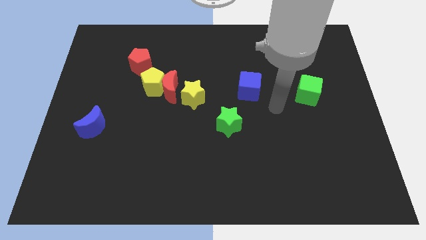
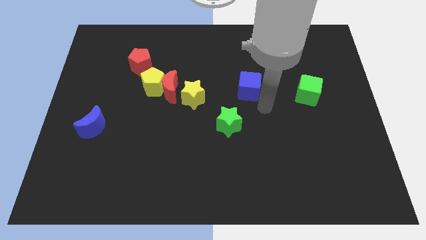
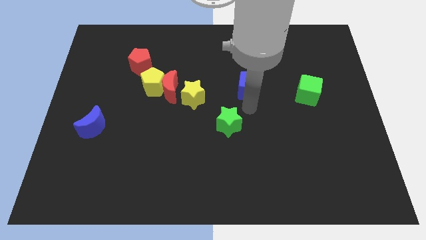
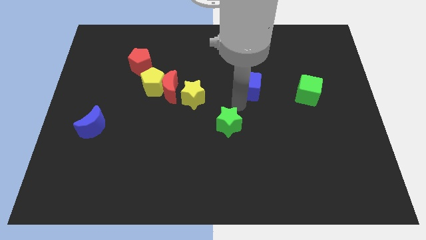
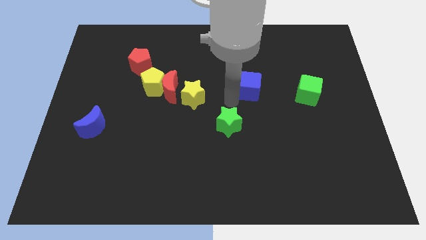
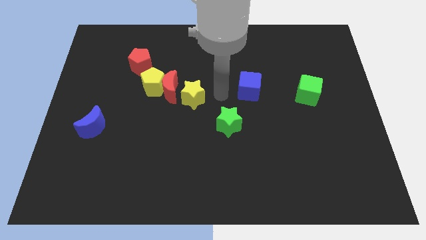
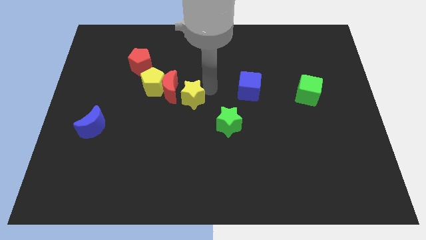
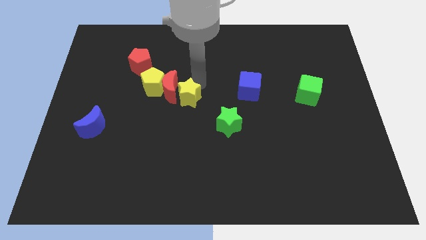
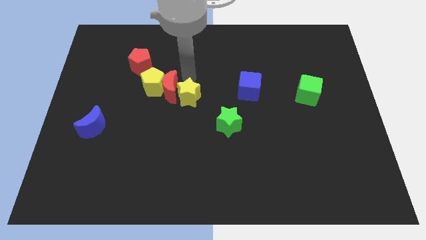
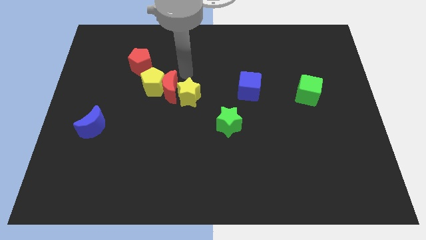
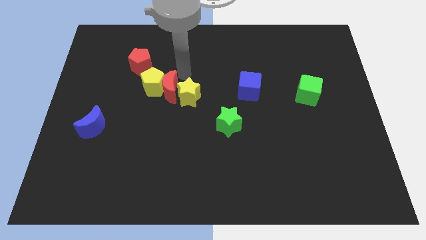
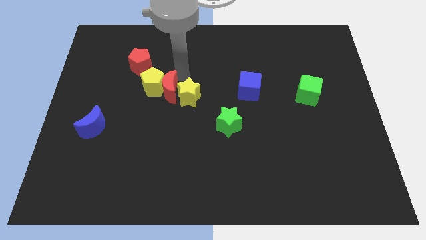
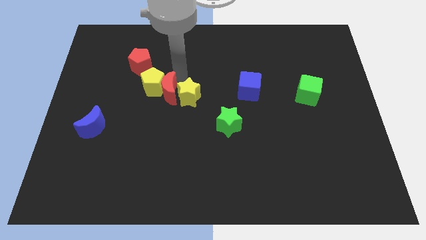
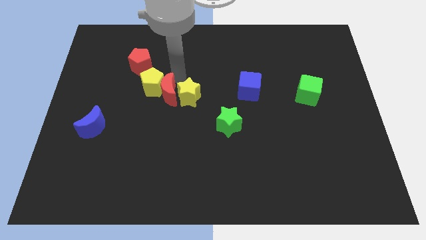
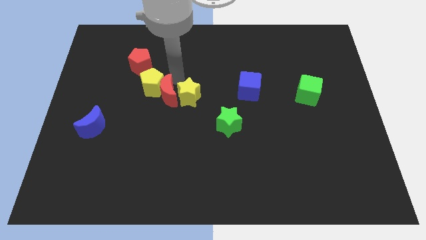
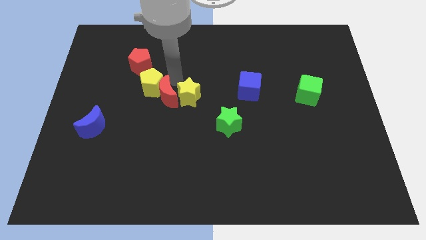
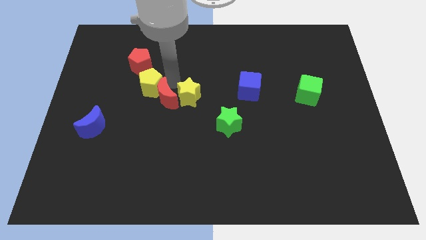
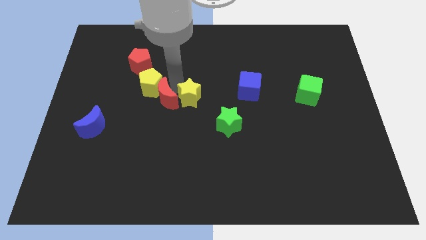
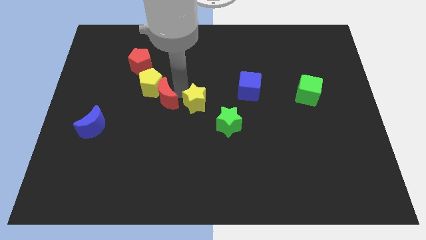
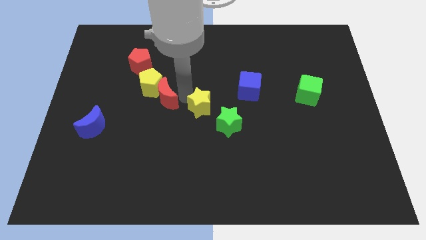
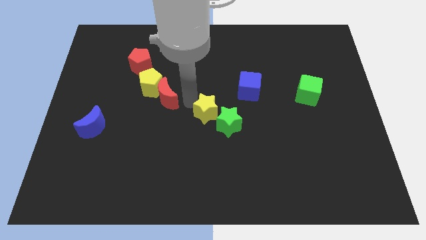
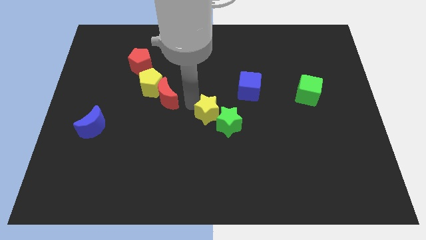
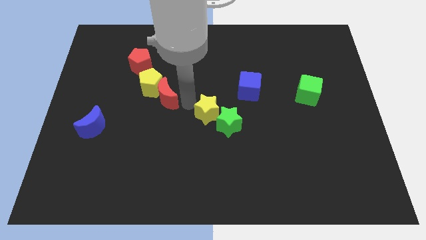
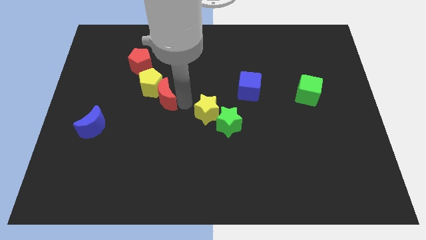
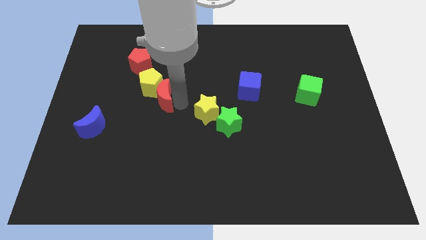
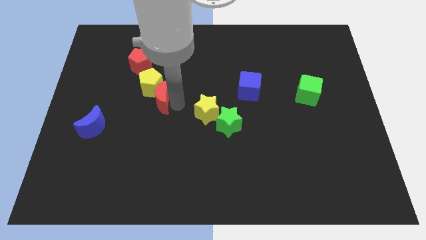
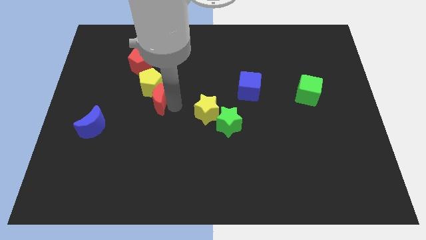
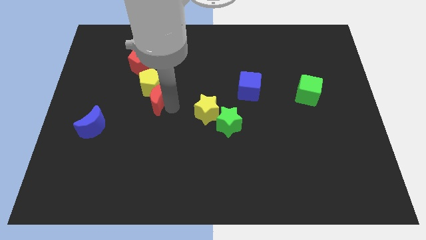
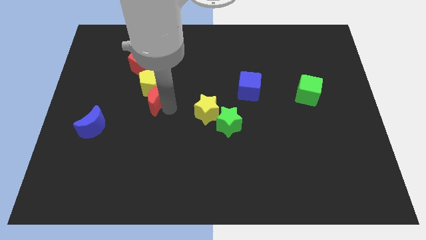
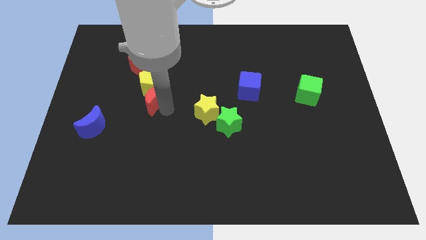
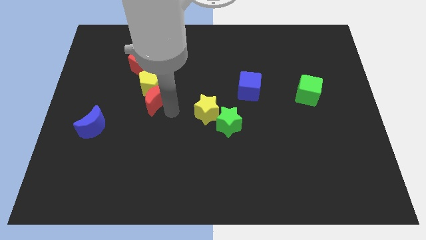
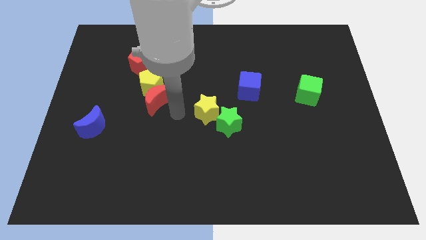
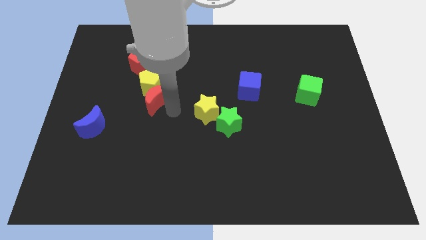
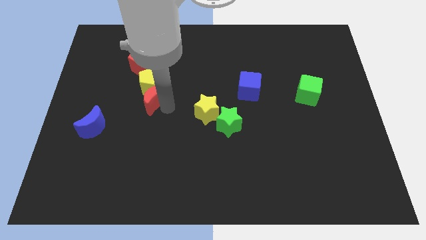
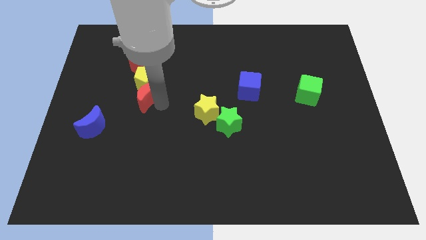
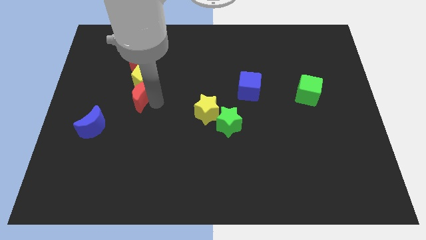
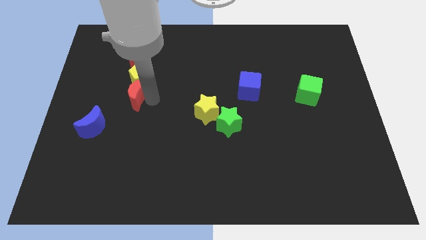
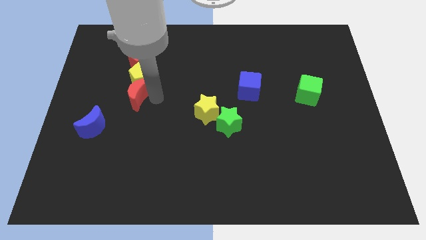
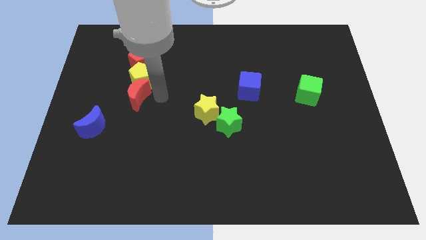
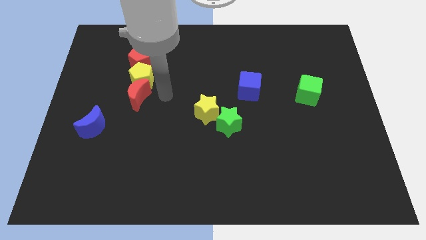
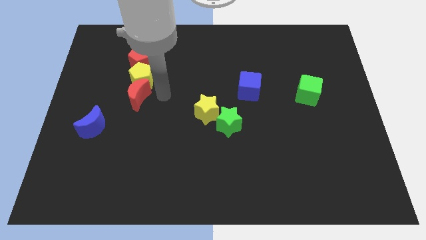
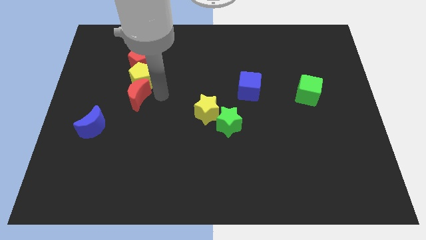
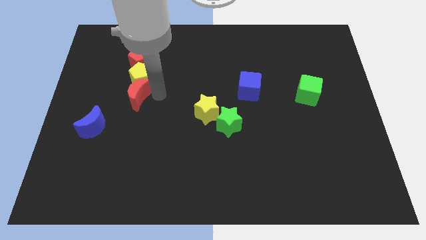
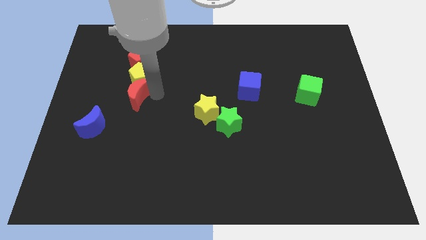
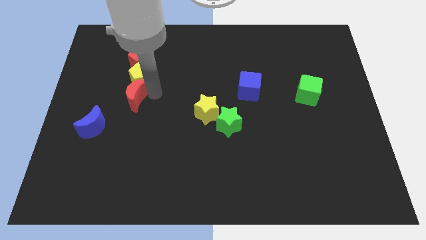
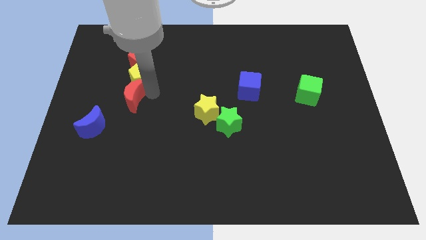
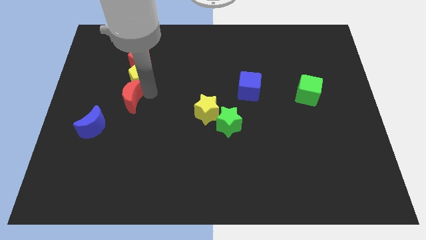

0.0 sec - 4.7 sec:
pull the red moon apart from the yellow pentagon and yellow star

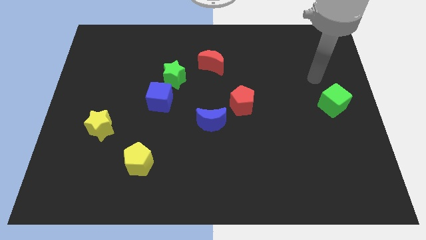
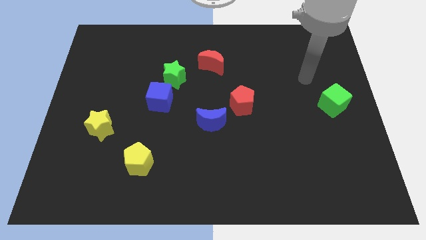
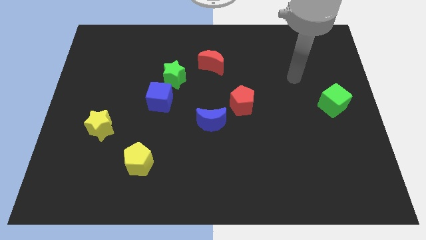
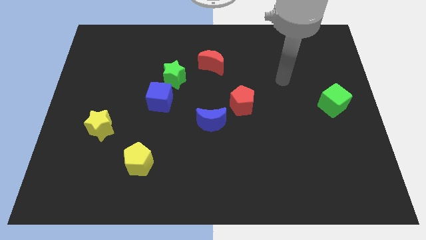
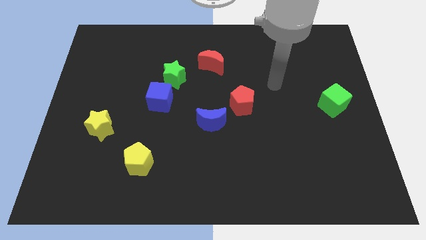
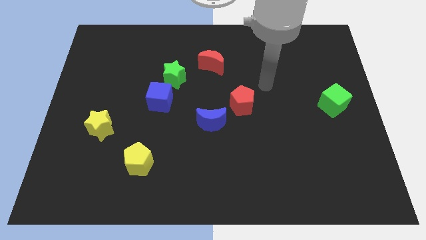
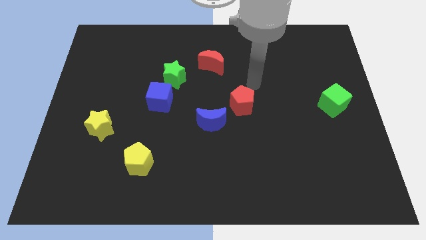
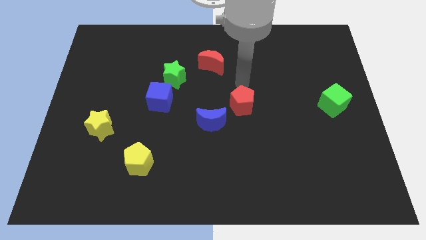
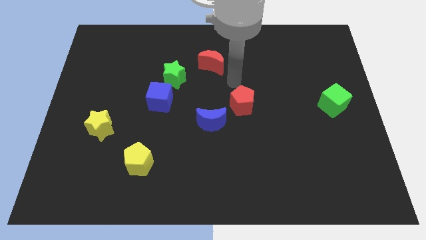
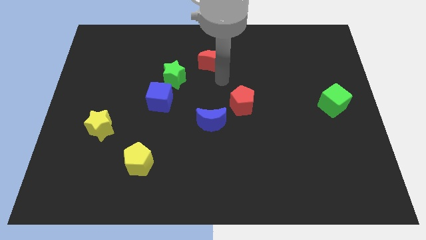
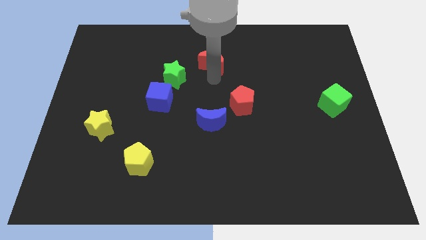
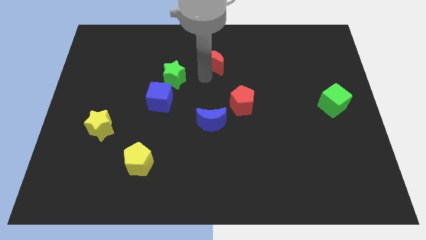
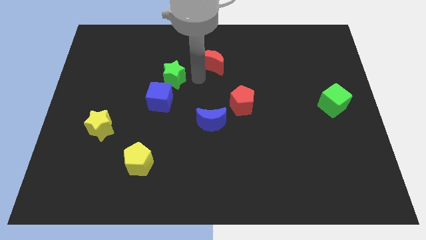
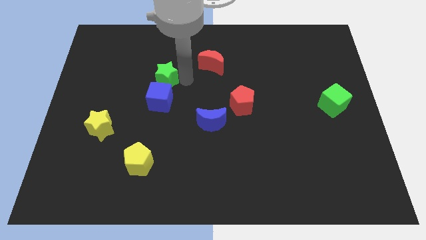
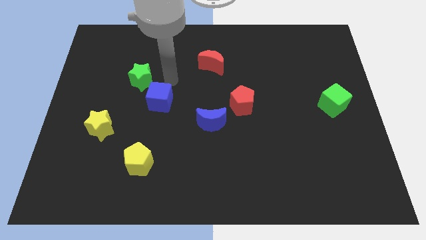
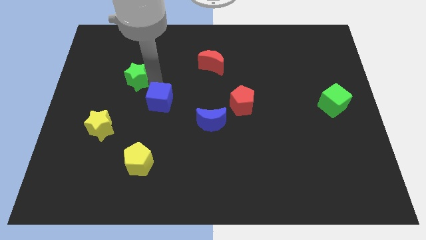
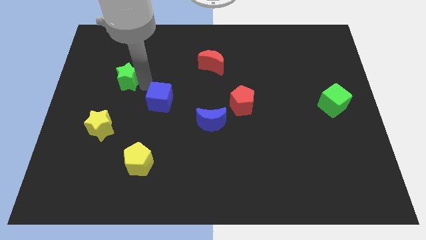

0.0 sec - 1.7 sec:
separate the blue cube from the green star

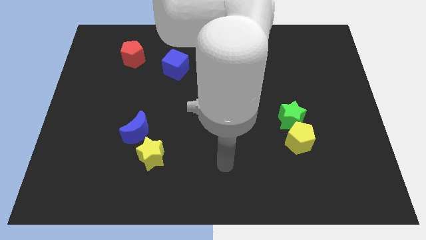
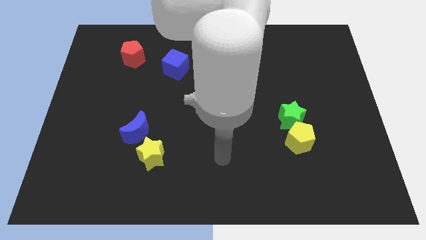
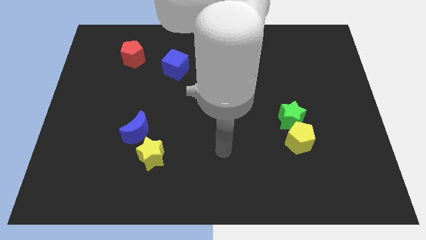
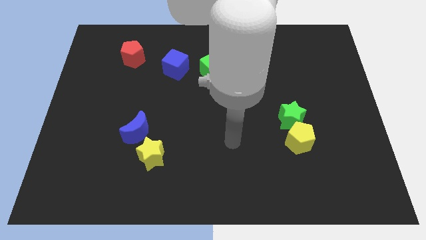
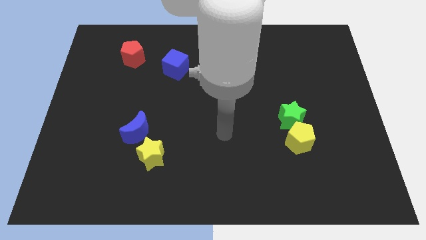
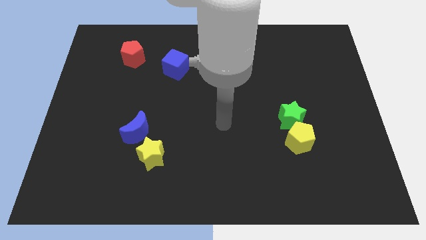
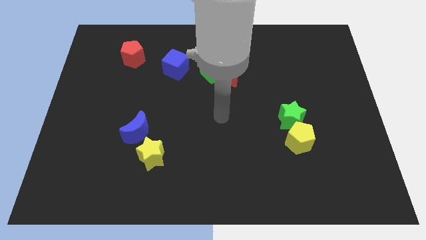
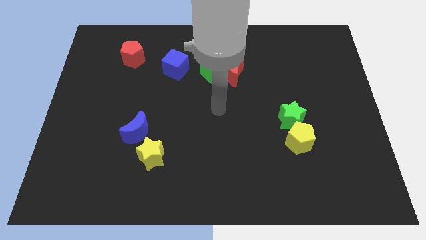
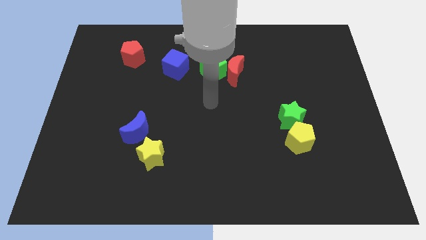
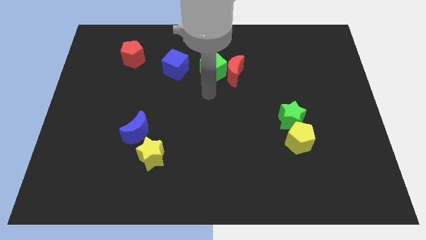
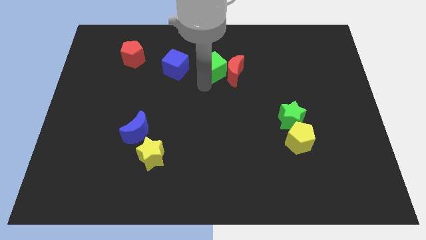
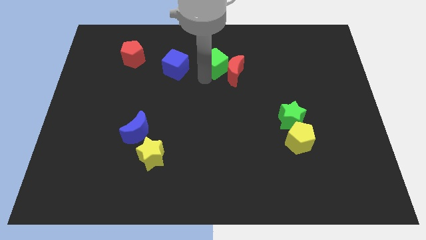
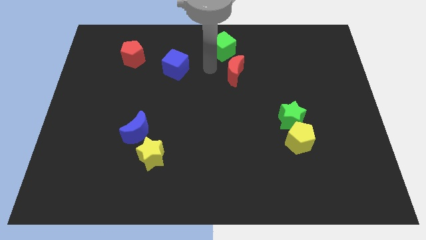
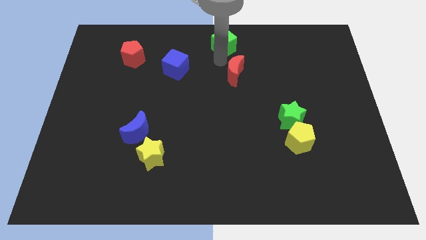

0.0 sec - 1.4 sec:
pull the red moon apart from the green cube

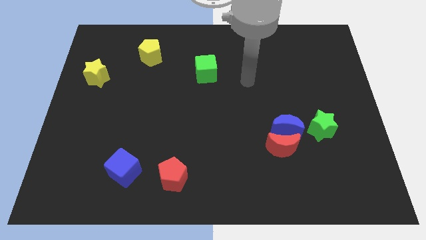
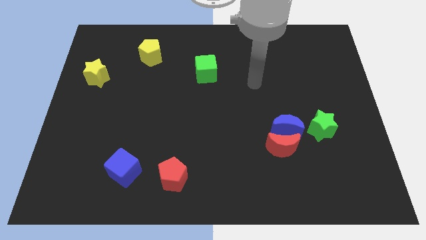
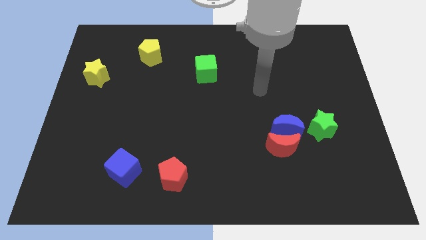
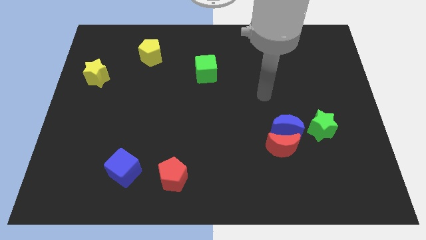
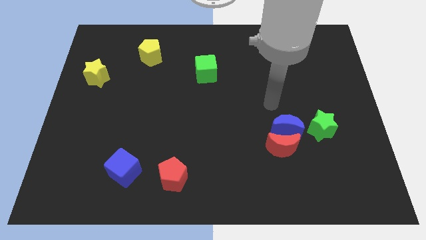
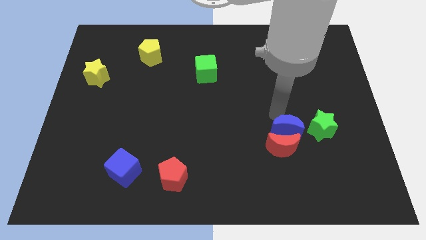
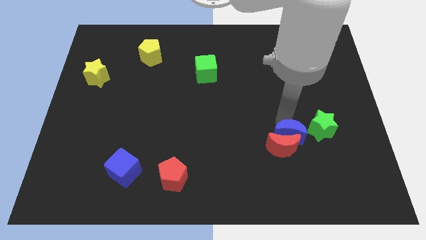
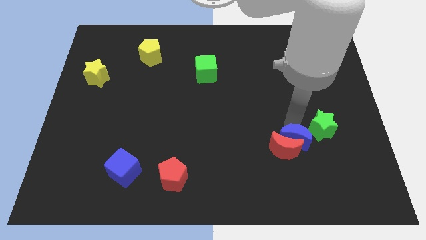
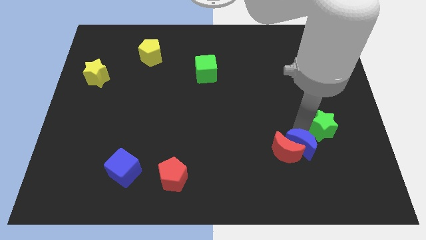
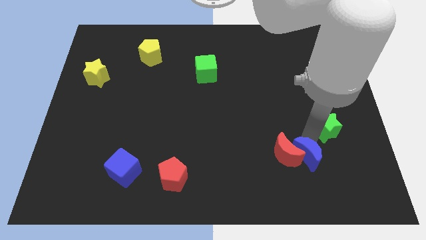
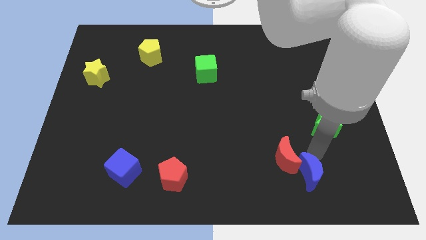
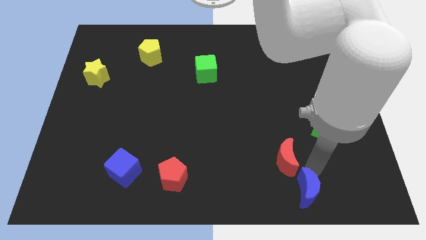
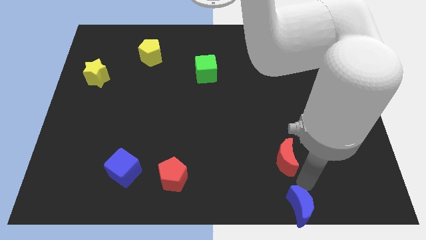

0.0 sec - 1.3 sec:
pull the red moon apart from the blue moon

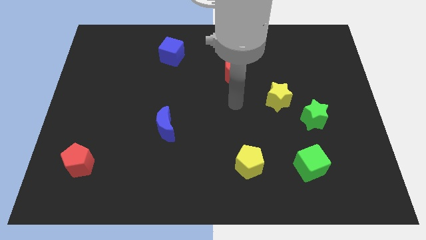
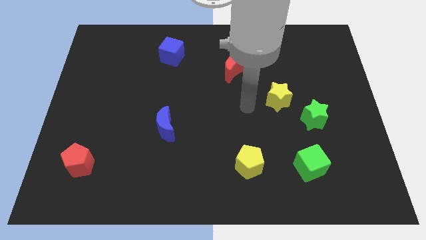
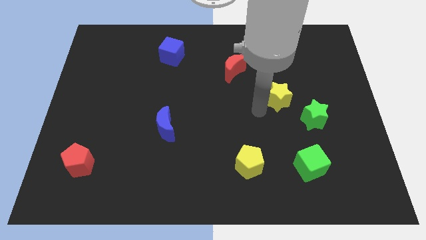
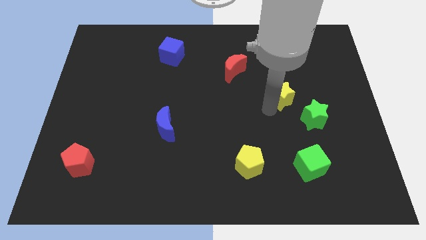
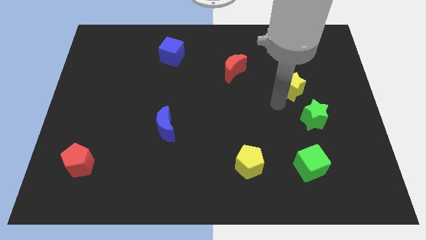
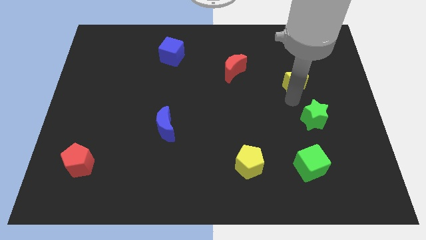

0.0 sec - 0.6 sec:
pull the green star apart from the yellow star
